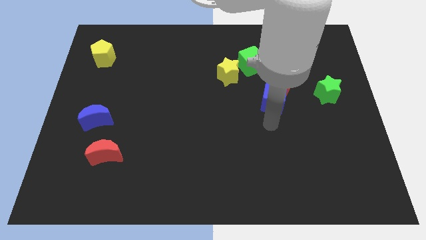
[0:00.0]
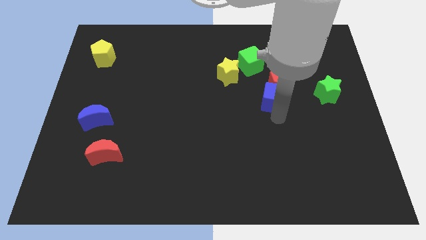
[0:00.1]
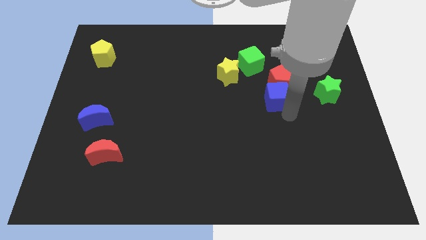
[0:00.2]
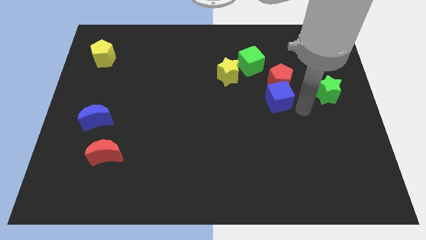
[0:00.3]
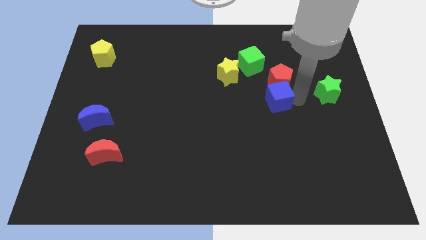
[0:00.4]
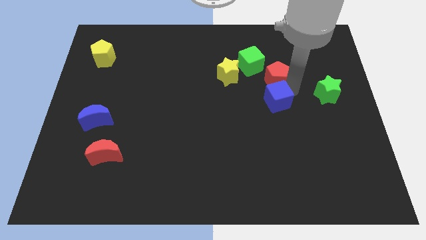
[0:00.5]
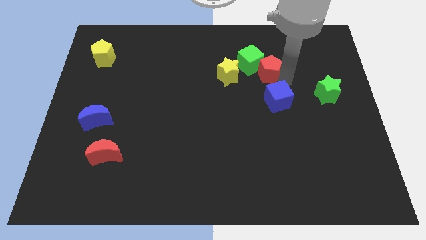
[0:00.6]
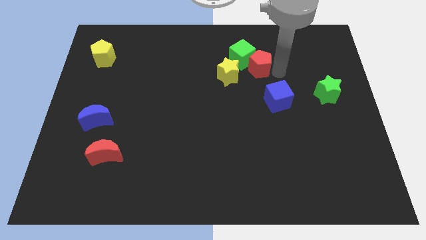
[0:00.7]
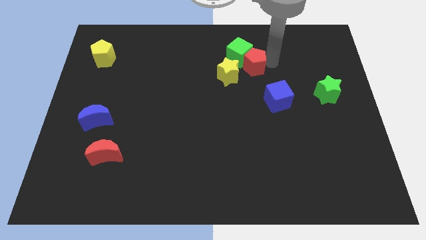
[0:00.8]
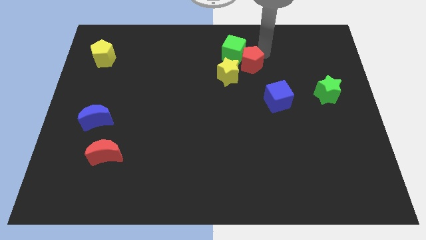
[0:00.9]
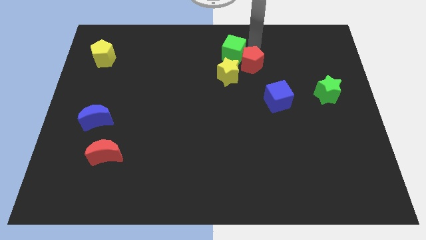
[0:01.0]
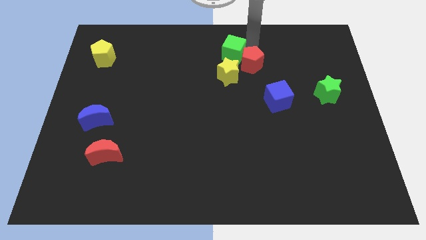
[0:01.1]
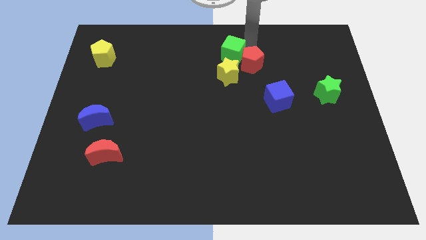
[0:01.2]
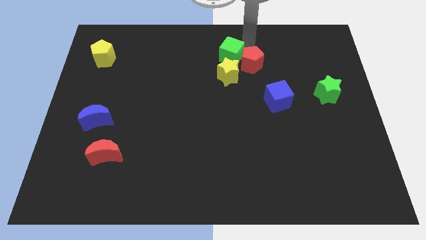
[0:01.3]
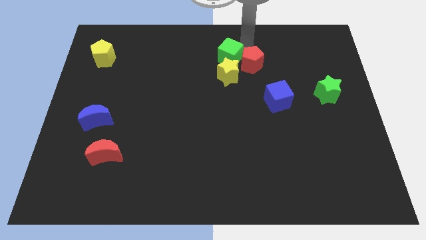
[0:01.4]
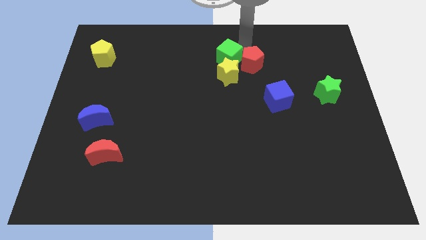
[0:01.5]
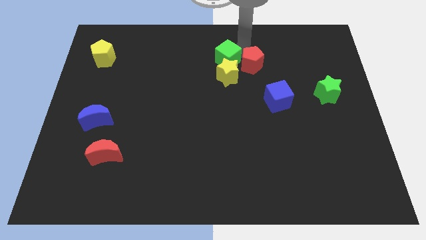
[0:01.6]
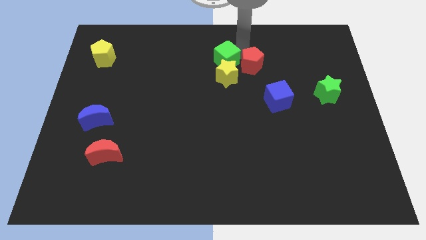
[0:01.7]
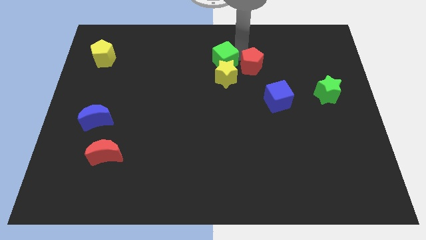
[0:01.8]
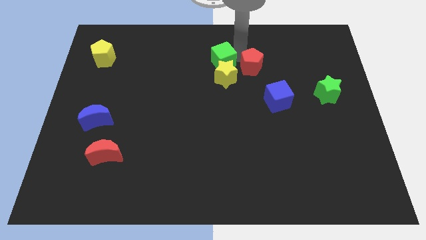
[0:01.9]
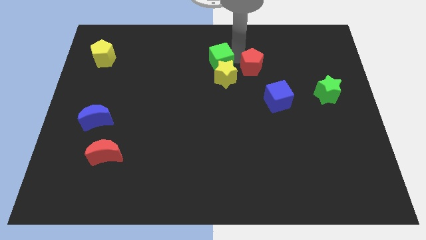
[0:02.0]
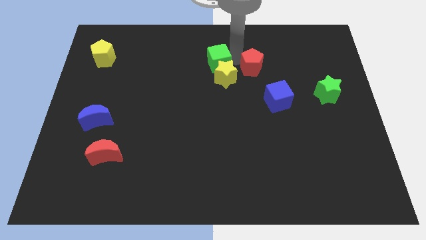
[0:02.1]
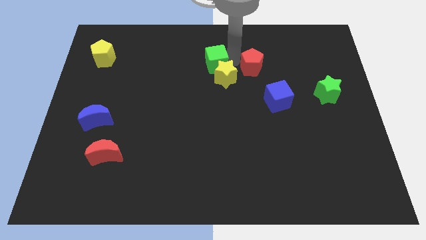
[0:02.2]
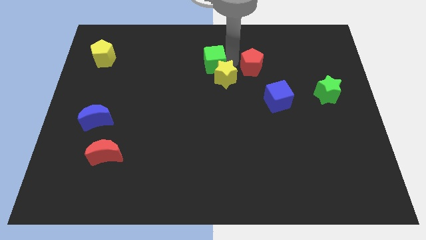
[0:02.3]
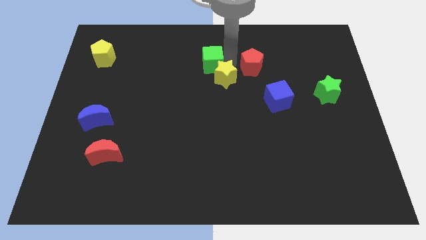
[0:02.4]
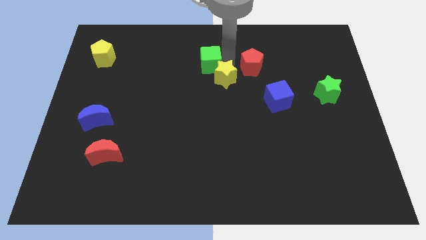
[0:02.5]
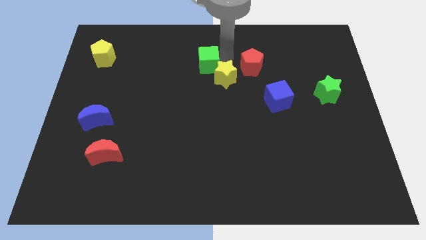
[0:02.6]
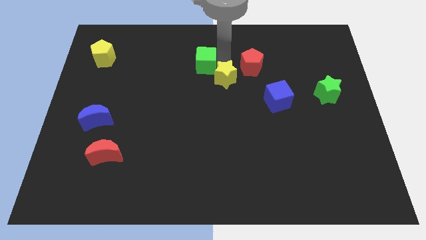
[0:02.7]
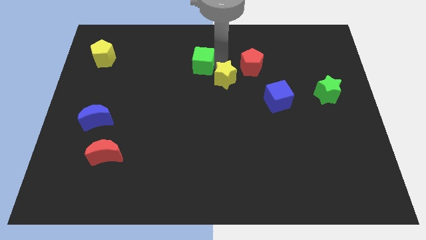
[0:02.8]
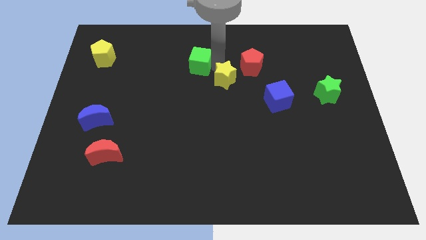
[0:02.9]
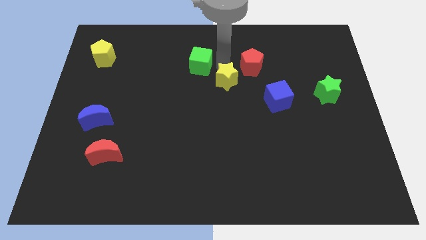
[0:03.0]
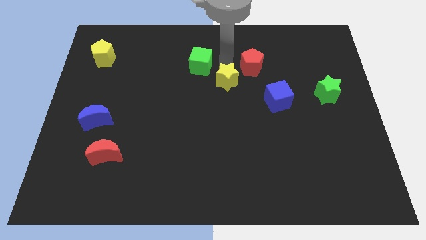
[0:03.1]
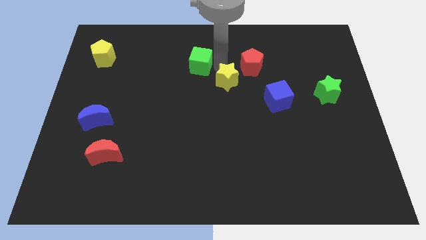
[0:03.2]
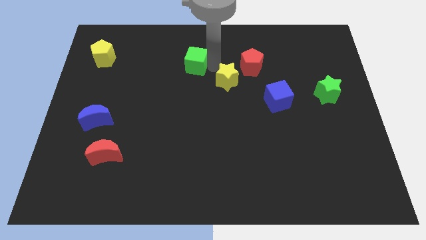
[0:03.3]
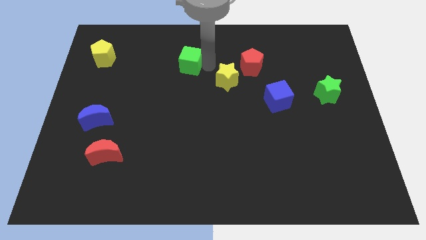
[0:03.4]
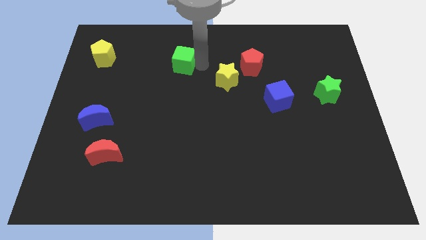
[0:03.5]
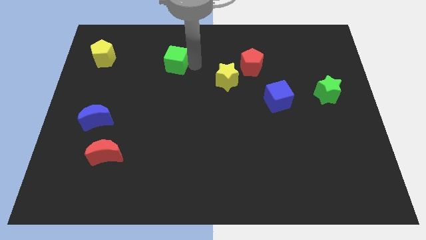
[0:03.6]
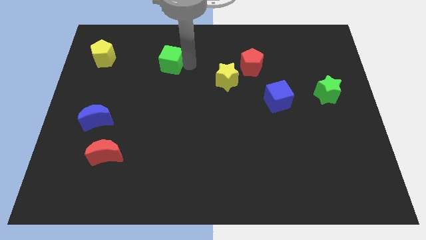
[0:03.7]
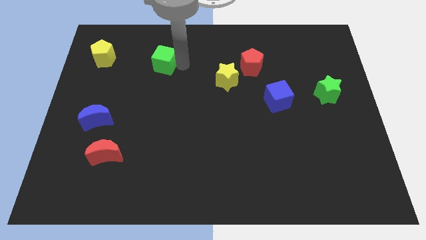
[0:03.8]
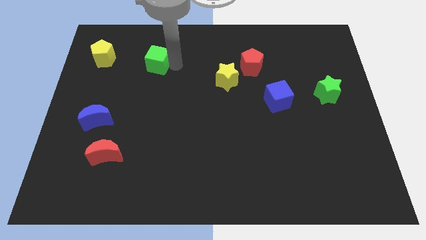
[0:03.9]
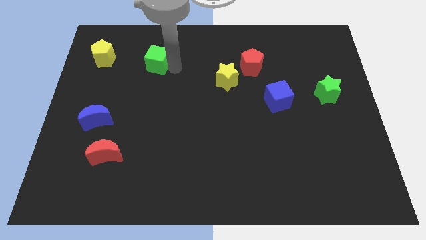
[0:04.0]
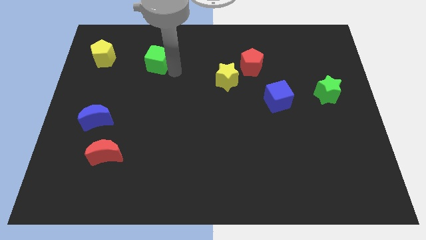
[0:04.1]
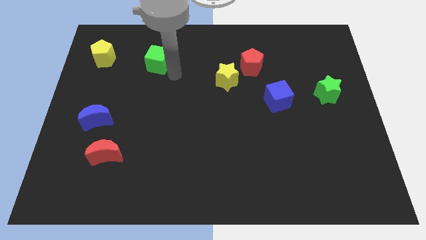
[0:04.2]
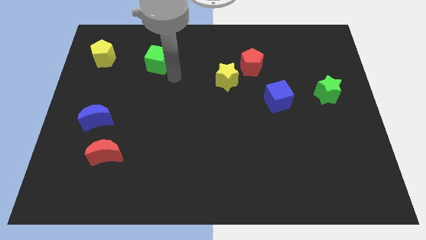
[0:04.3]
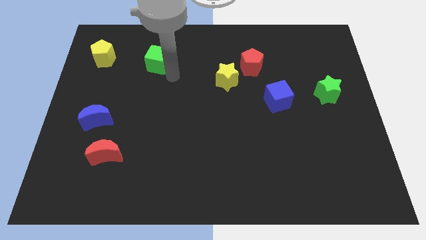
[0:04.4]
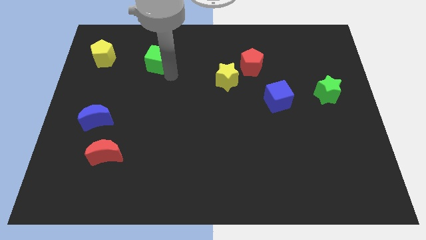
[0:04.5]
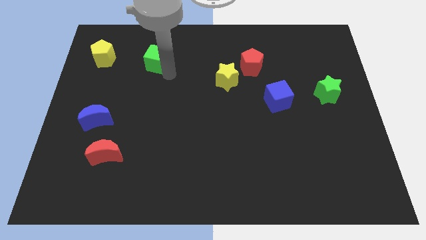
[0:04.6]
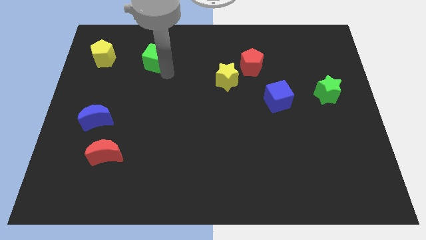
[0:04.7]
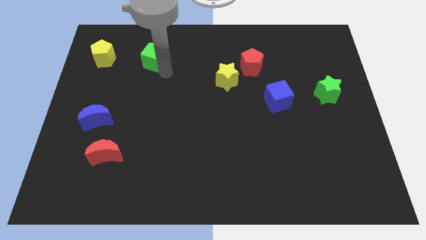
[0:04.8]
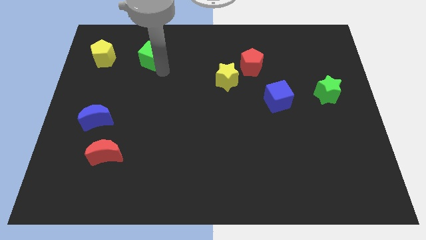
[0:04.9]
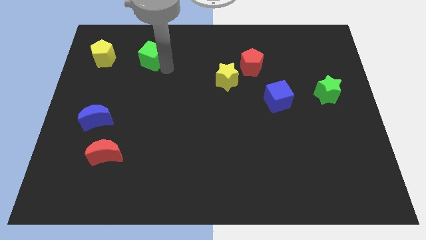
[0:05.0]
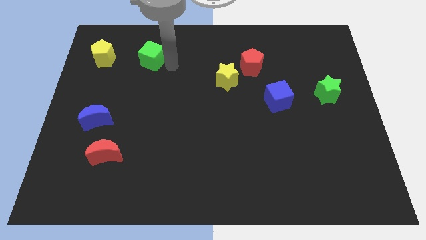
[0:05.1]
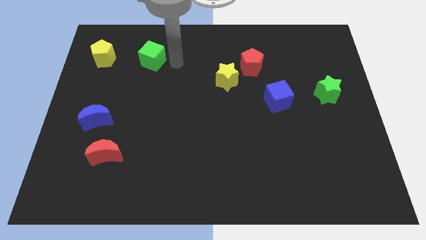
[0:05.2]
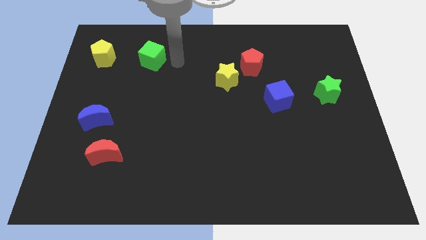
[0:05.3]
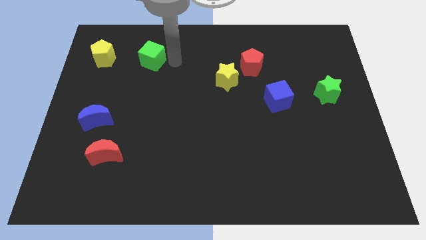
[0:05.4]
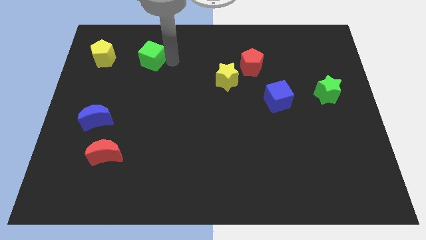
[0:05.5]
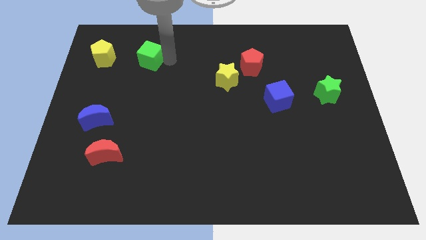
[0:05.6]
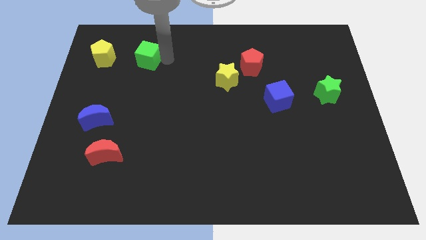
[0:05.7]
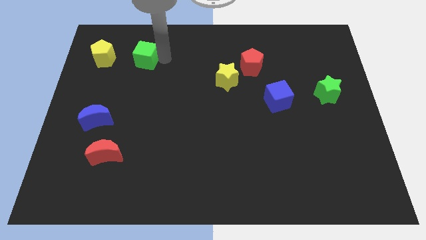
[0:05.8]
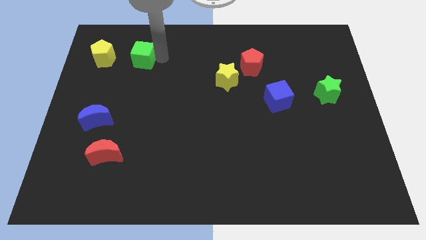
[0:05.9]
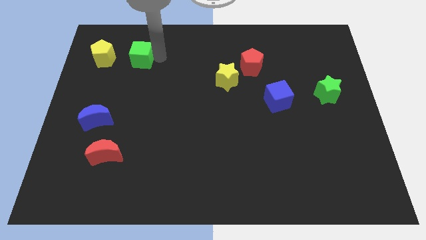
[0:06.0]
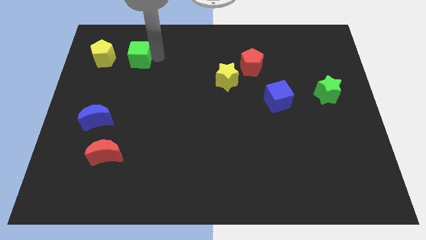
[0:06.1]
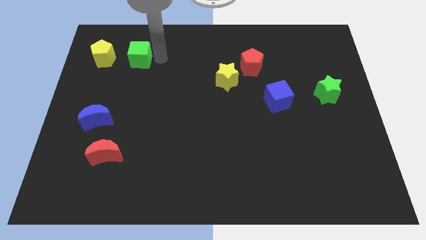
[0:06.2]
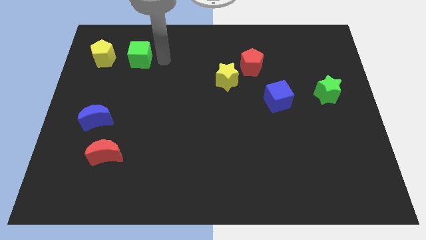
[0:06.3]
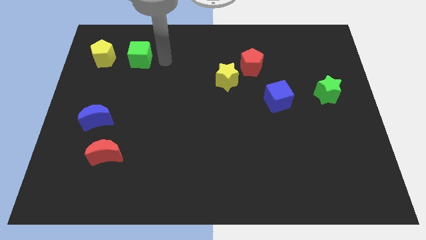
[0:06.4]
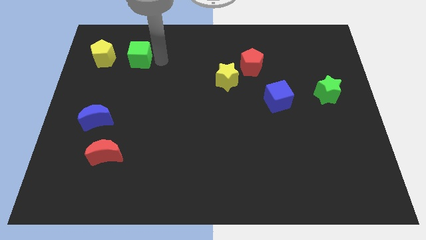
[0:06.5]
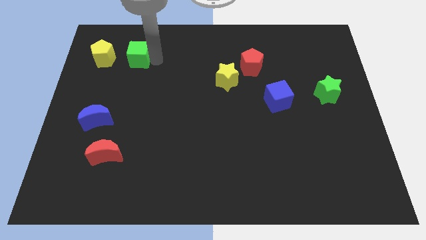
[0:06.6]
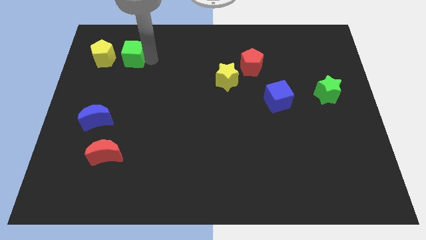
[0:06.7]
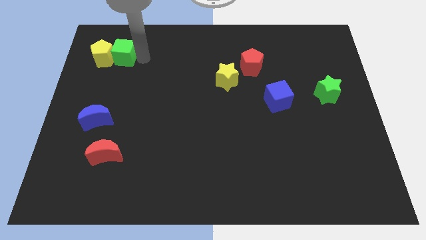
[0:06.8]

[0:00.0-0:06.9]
slide the green cube next to the yellow pentagon
